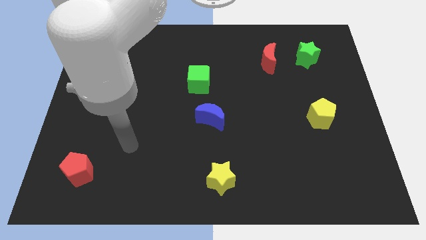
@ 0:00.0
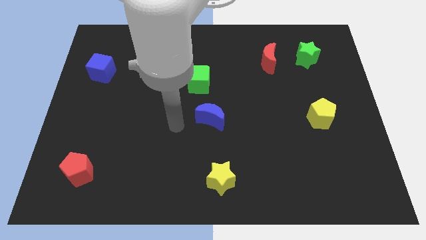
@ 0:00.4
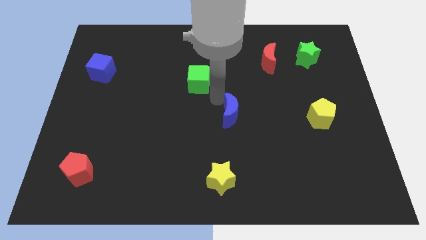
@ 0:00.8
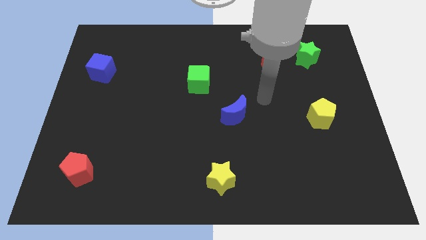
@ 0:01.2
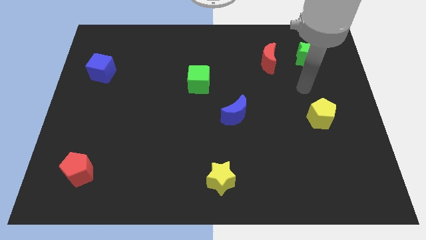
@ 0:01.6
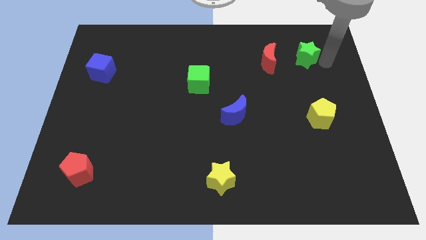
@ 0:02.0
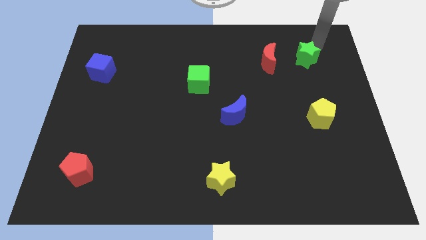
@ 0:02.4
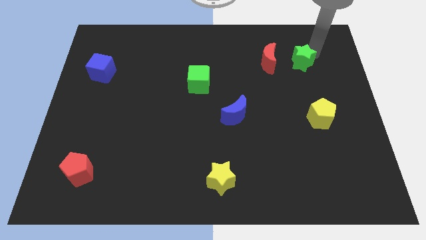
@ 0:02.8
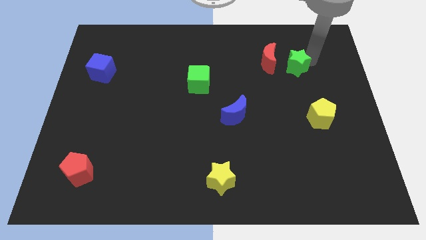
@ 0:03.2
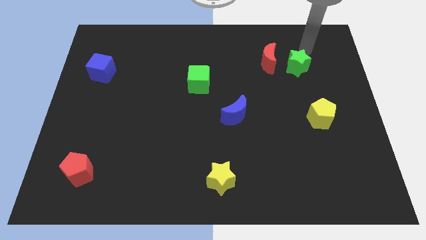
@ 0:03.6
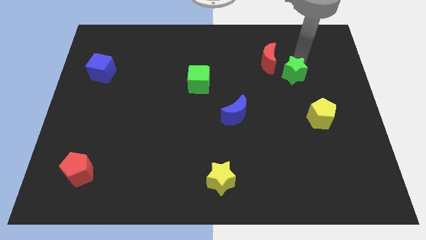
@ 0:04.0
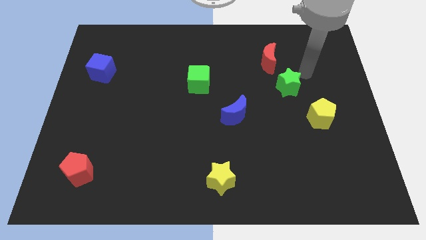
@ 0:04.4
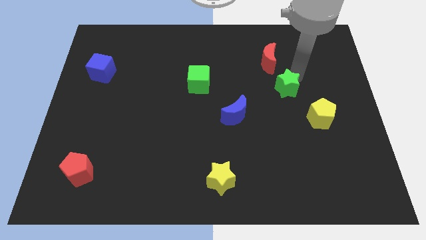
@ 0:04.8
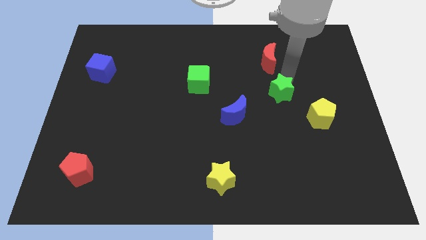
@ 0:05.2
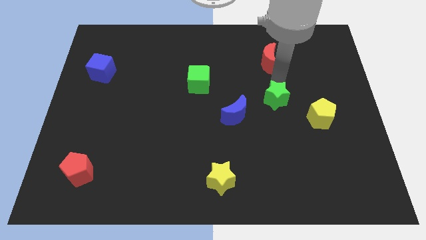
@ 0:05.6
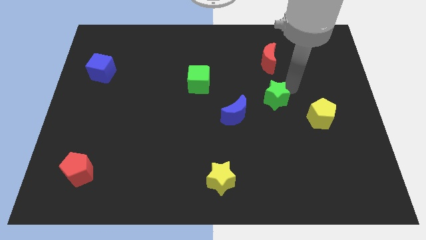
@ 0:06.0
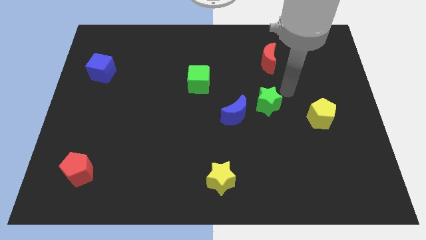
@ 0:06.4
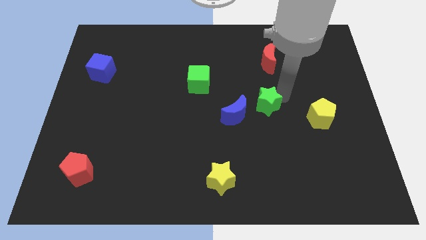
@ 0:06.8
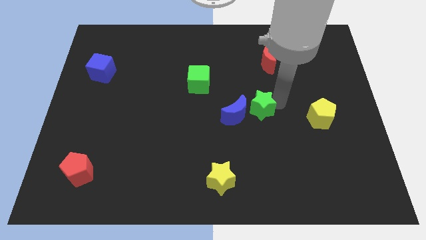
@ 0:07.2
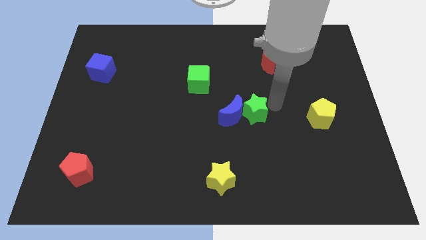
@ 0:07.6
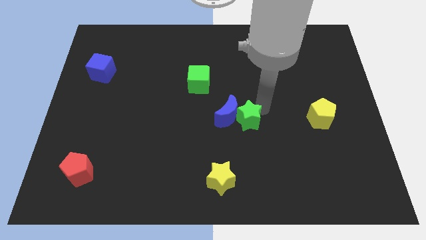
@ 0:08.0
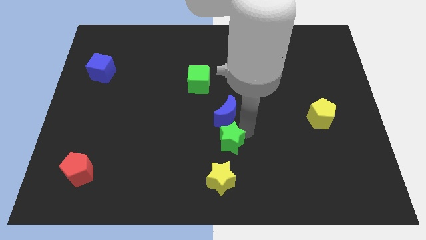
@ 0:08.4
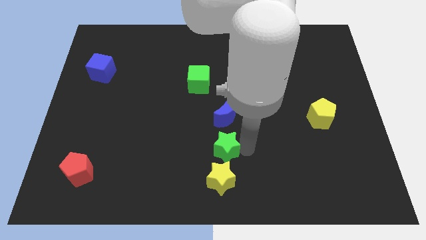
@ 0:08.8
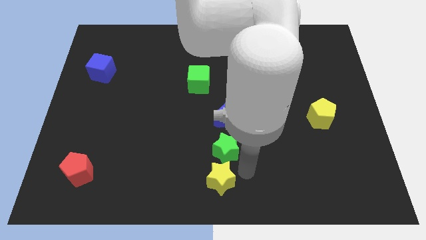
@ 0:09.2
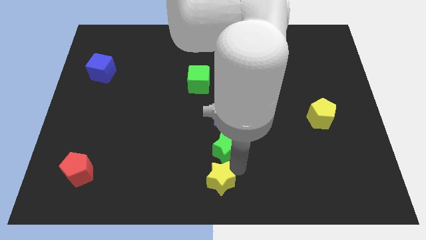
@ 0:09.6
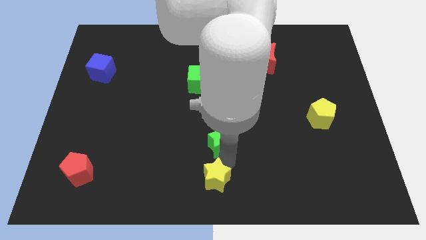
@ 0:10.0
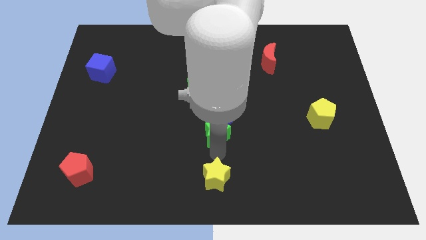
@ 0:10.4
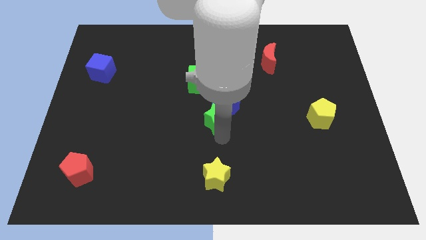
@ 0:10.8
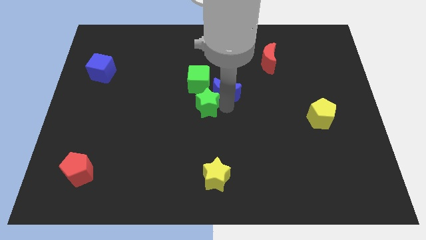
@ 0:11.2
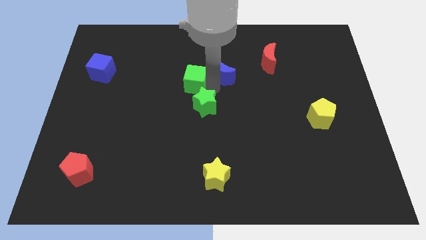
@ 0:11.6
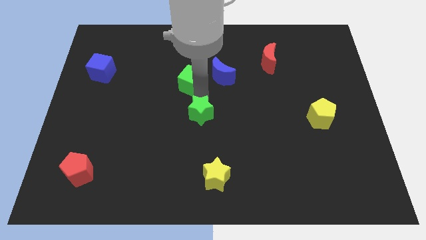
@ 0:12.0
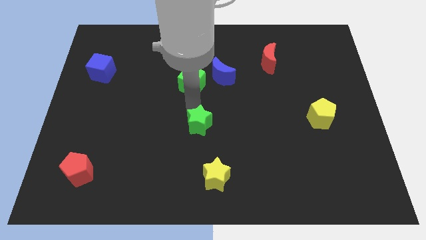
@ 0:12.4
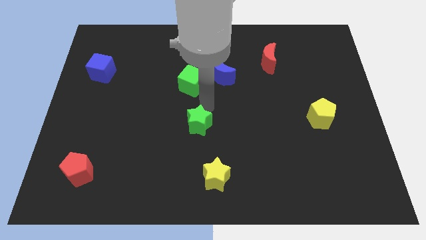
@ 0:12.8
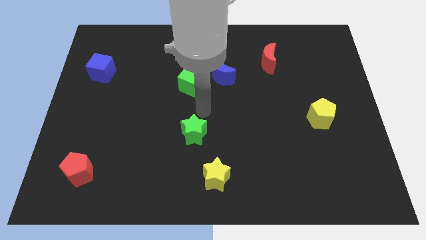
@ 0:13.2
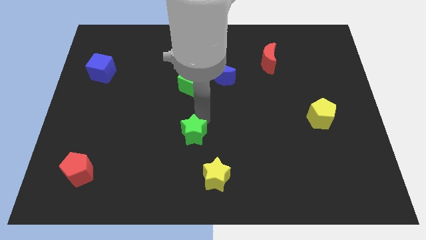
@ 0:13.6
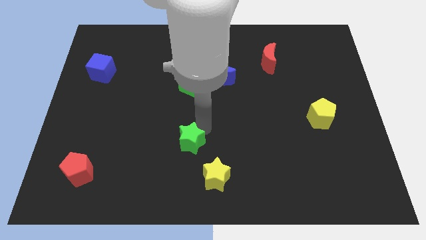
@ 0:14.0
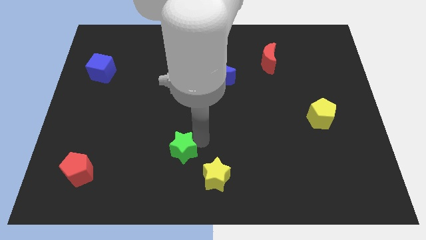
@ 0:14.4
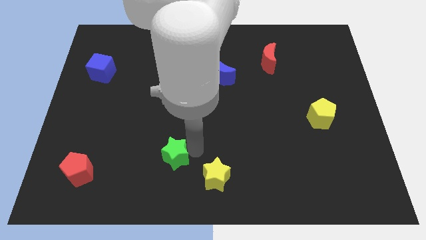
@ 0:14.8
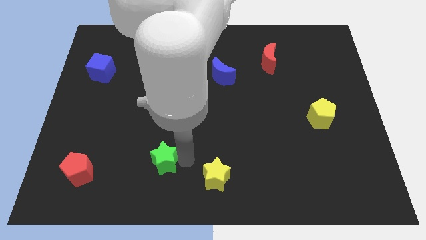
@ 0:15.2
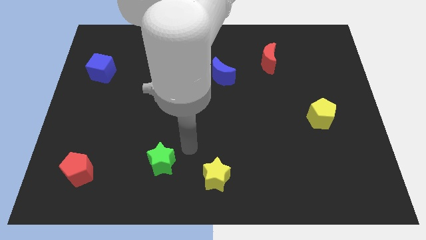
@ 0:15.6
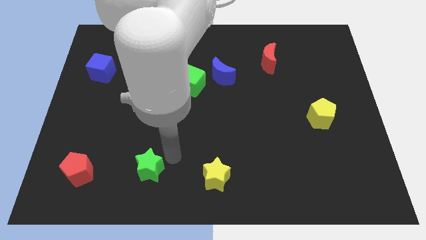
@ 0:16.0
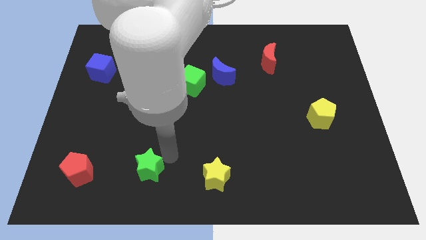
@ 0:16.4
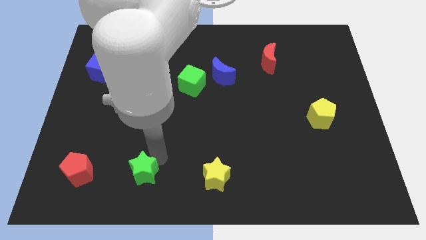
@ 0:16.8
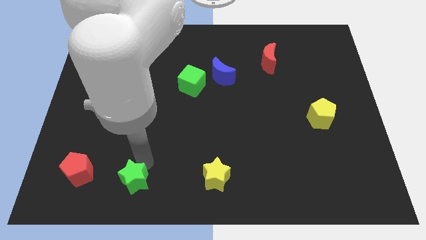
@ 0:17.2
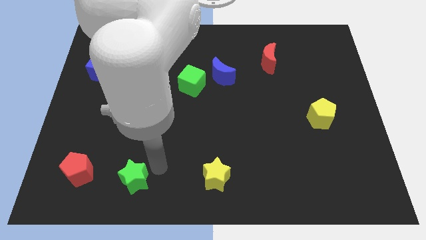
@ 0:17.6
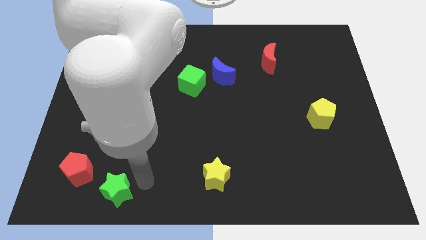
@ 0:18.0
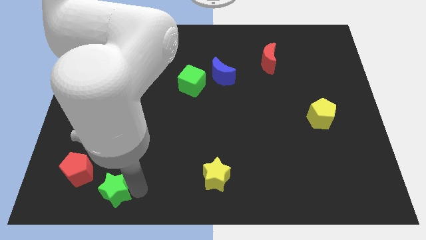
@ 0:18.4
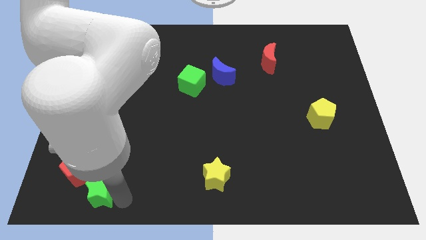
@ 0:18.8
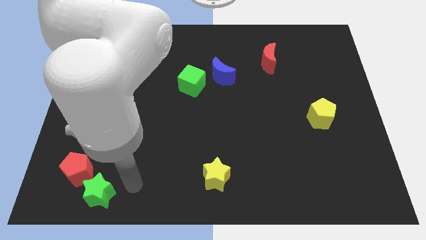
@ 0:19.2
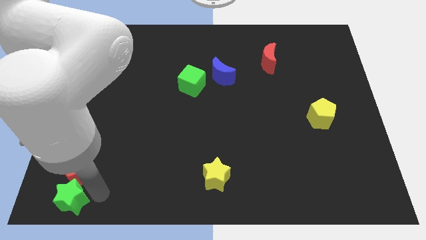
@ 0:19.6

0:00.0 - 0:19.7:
slide the green star to the bottom left corner

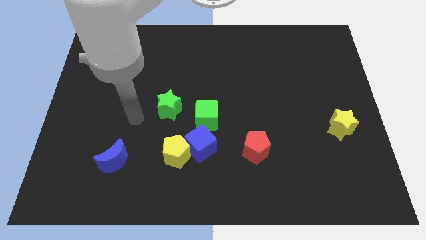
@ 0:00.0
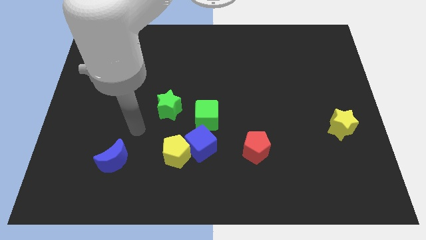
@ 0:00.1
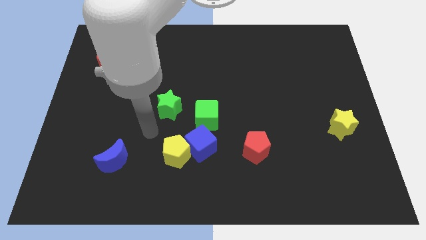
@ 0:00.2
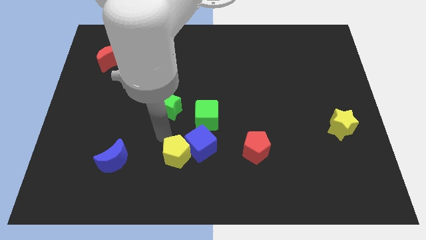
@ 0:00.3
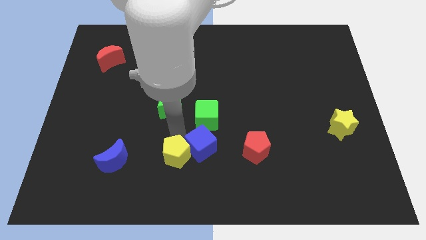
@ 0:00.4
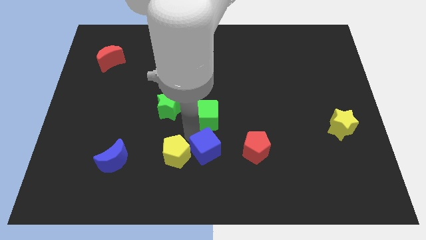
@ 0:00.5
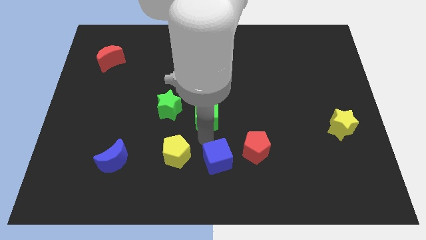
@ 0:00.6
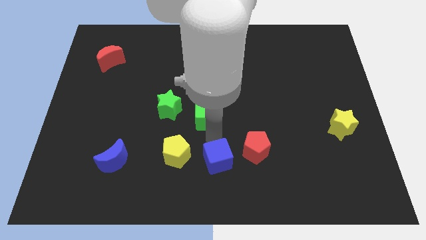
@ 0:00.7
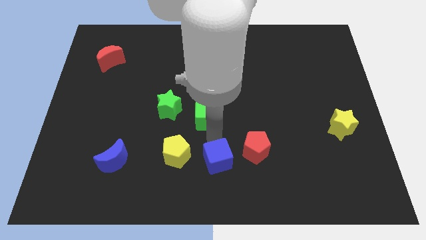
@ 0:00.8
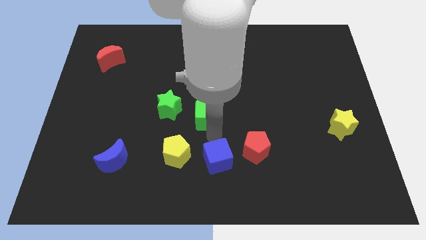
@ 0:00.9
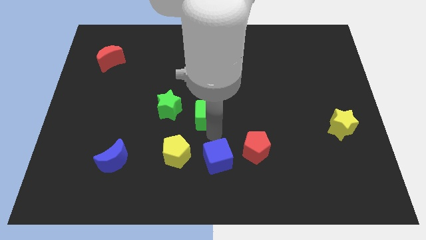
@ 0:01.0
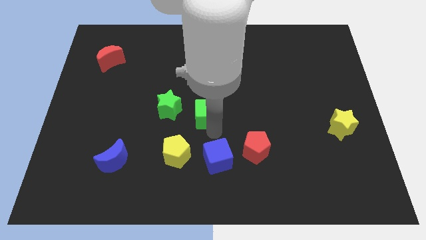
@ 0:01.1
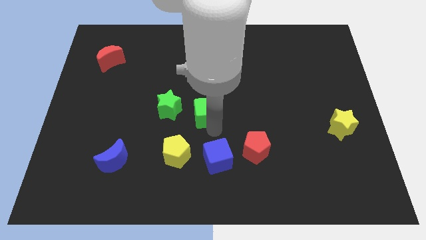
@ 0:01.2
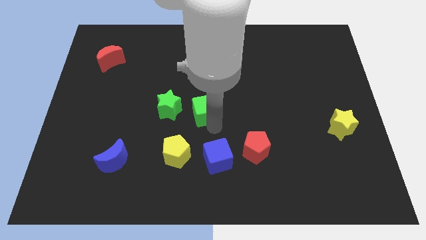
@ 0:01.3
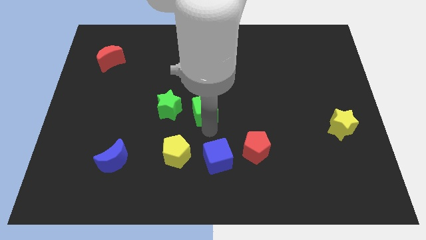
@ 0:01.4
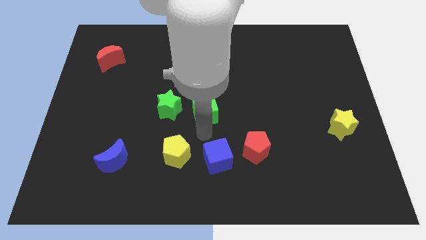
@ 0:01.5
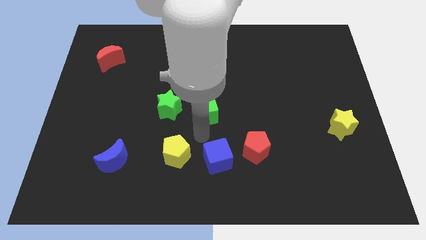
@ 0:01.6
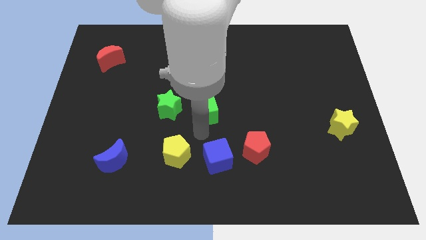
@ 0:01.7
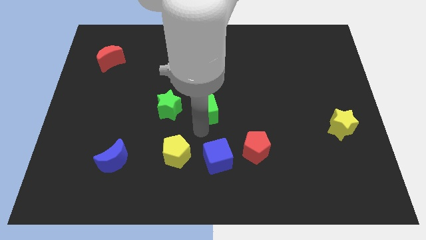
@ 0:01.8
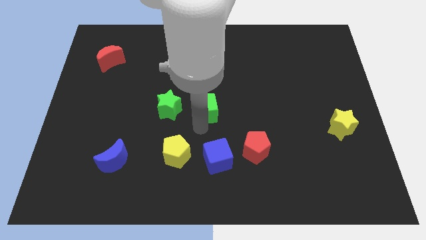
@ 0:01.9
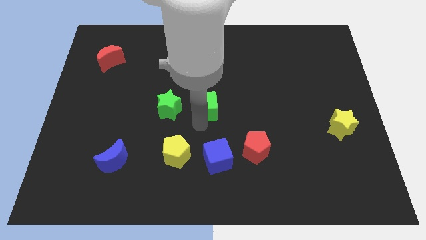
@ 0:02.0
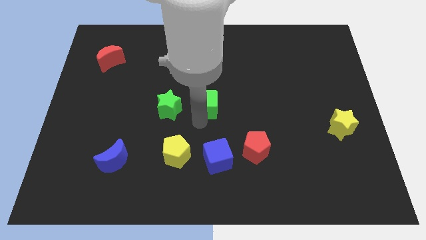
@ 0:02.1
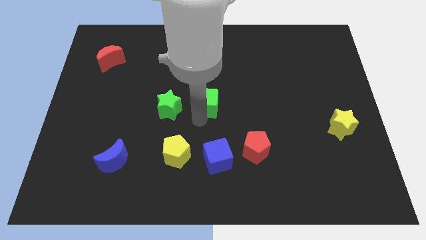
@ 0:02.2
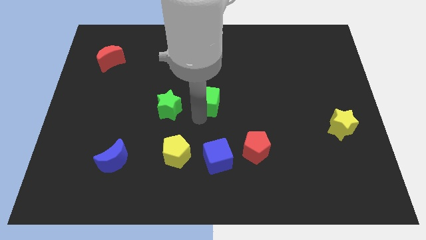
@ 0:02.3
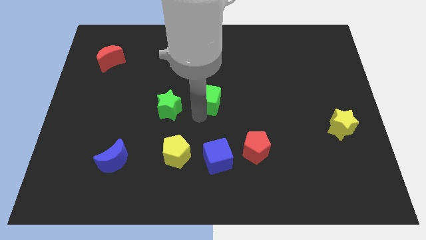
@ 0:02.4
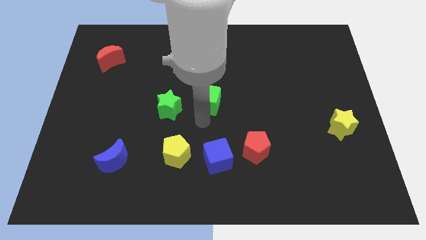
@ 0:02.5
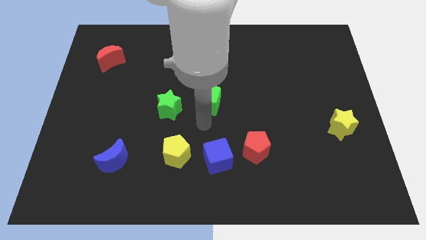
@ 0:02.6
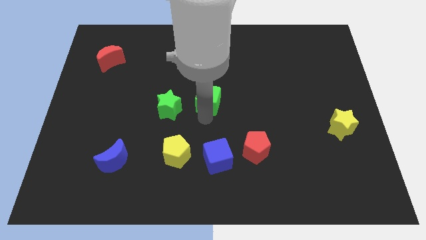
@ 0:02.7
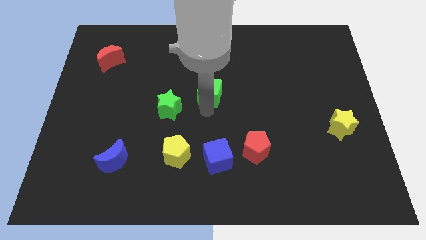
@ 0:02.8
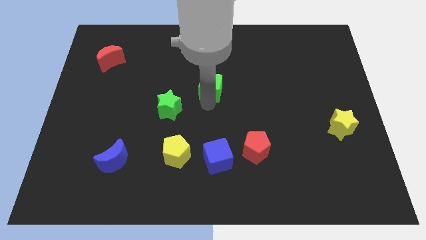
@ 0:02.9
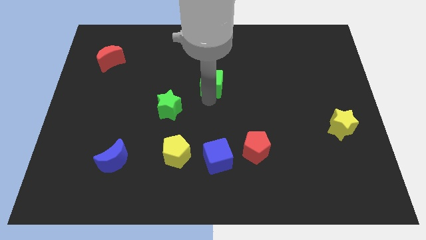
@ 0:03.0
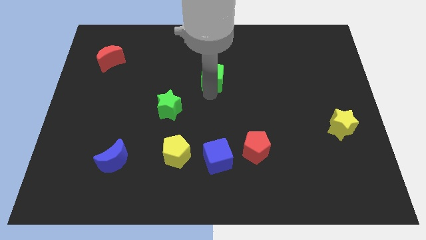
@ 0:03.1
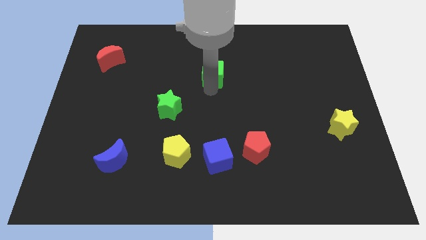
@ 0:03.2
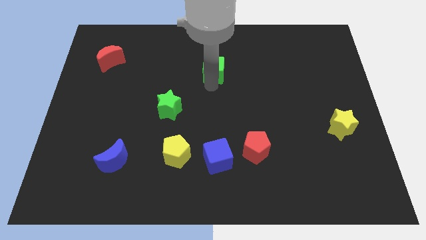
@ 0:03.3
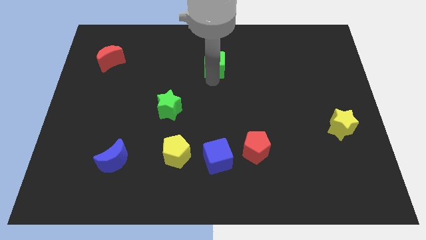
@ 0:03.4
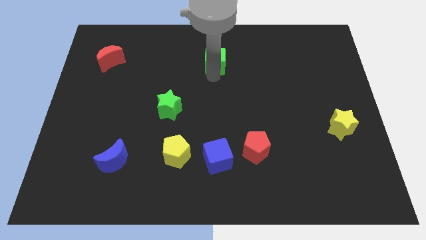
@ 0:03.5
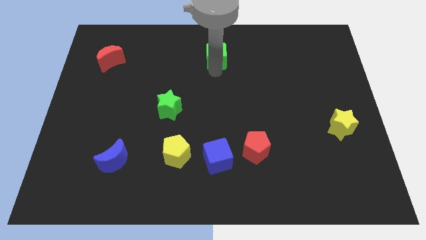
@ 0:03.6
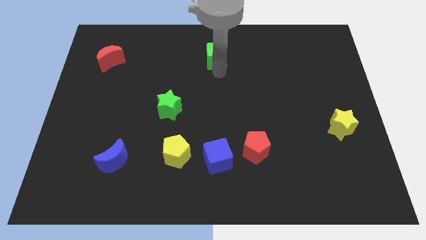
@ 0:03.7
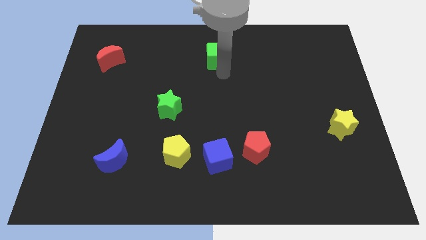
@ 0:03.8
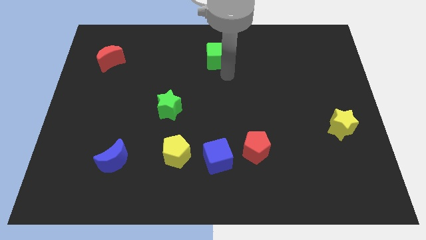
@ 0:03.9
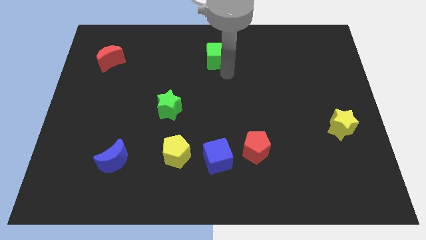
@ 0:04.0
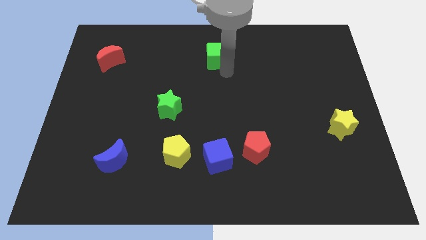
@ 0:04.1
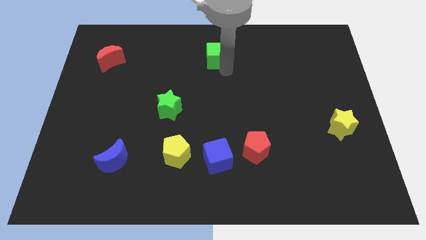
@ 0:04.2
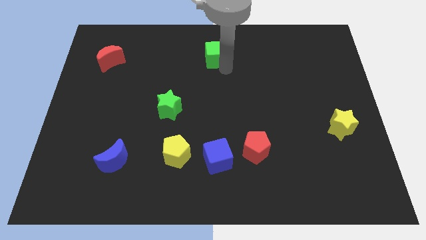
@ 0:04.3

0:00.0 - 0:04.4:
put the green cube to the top
